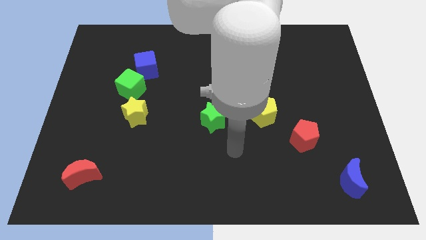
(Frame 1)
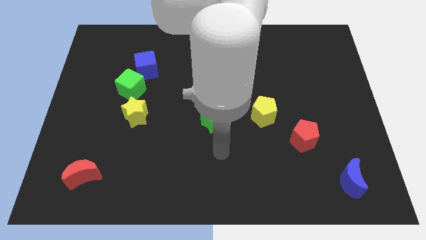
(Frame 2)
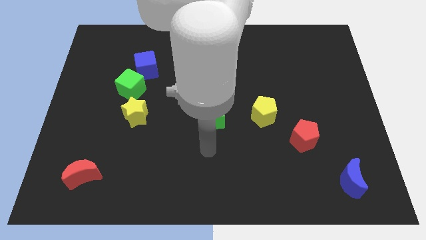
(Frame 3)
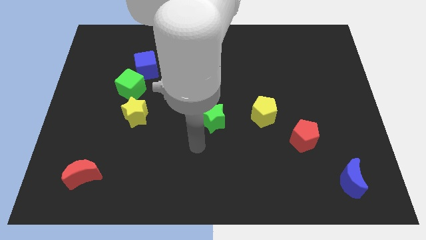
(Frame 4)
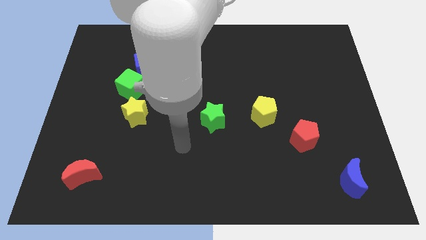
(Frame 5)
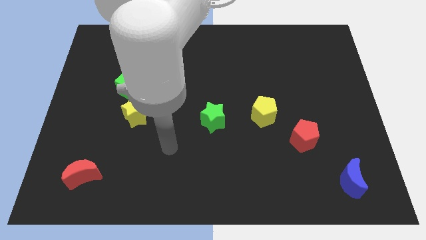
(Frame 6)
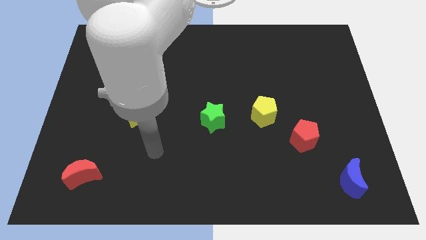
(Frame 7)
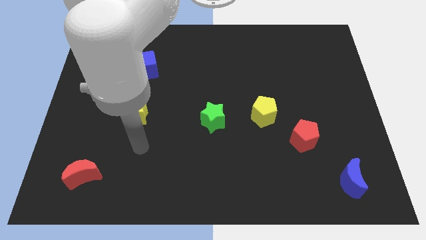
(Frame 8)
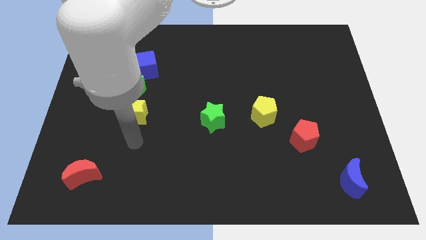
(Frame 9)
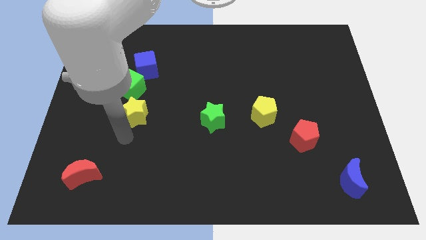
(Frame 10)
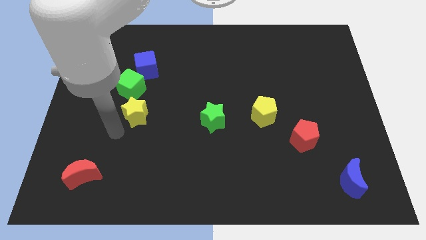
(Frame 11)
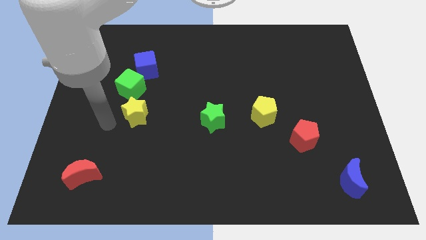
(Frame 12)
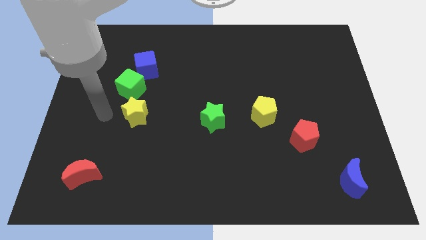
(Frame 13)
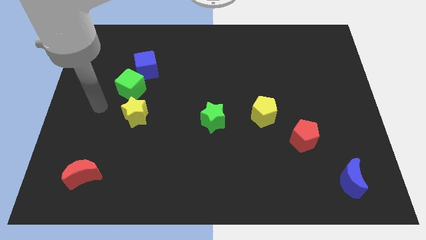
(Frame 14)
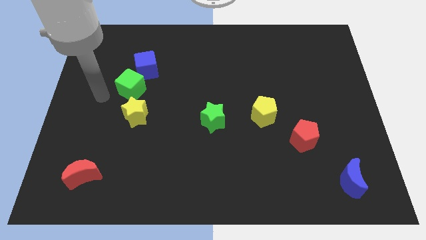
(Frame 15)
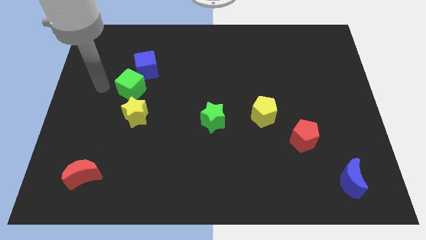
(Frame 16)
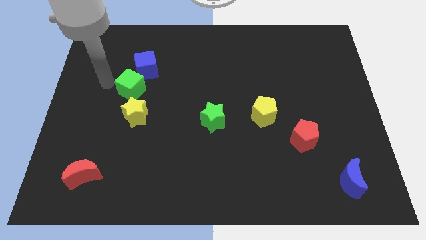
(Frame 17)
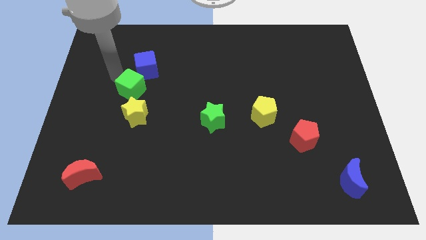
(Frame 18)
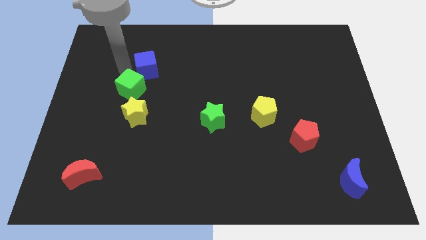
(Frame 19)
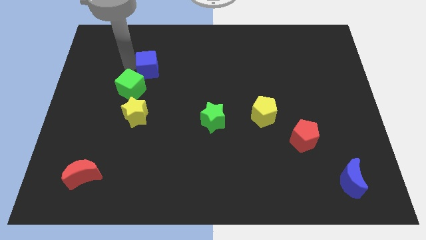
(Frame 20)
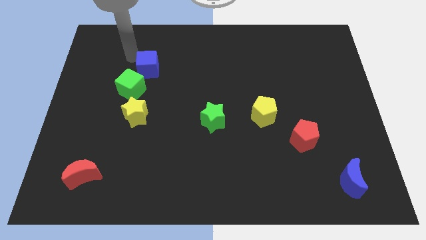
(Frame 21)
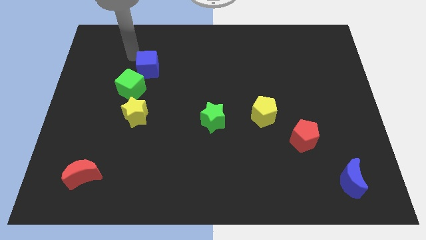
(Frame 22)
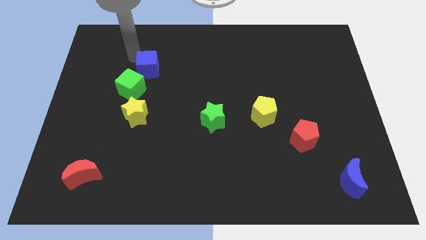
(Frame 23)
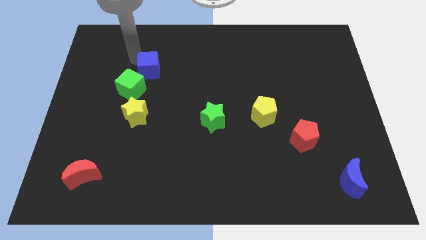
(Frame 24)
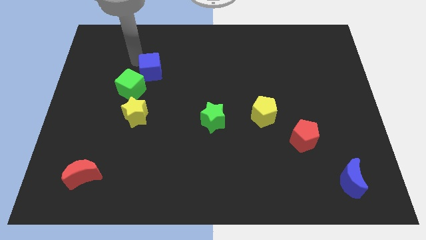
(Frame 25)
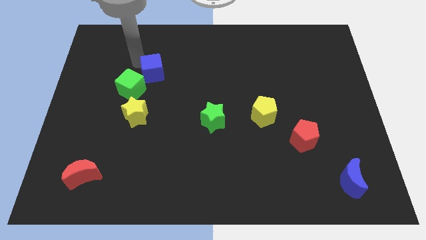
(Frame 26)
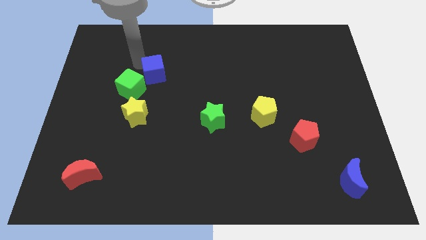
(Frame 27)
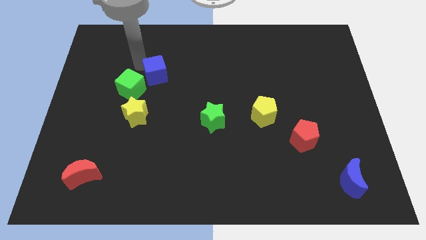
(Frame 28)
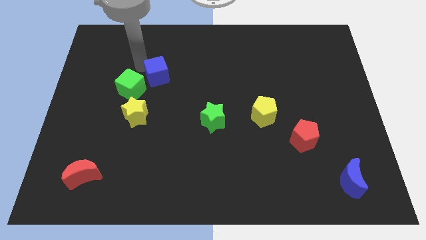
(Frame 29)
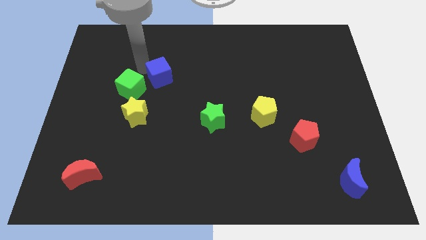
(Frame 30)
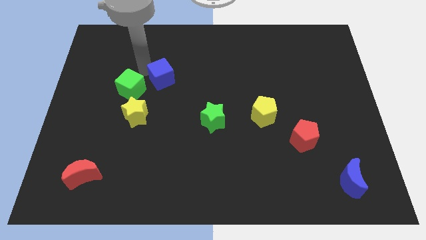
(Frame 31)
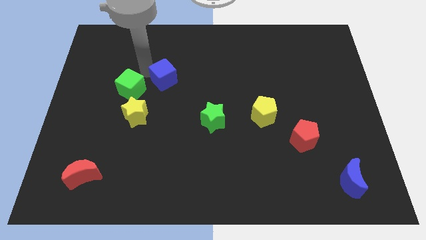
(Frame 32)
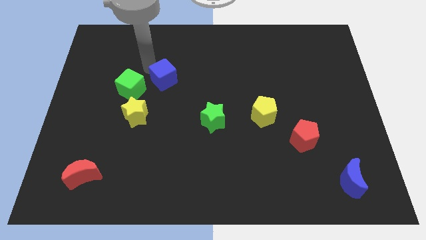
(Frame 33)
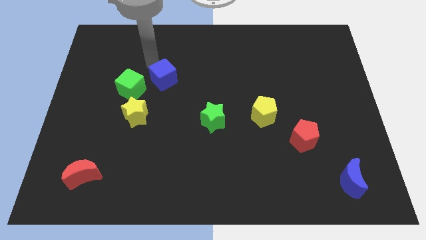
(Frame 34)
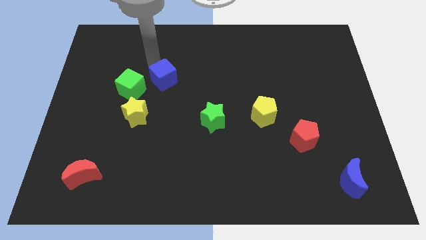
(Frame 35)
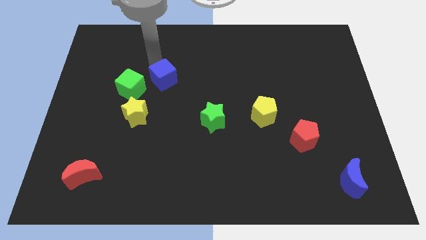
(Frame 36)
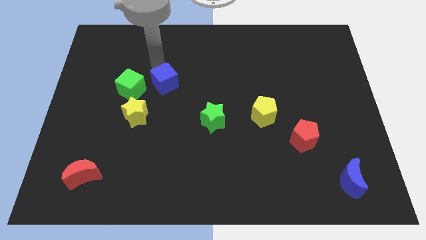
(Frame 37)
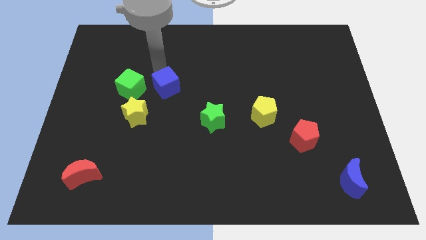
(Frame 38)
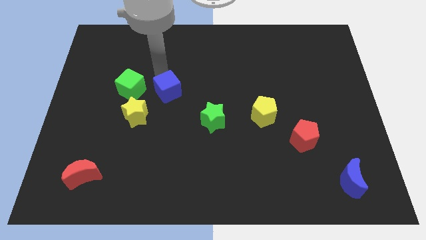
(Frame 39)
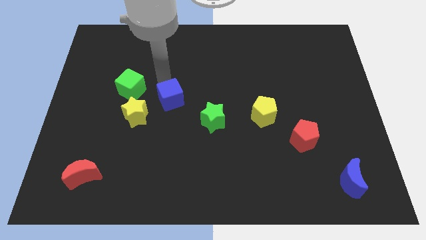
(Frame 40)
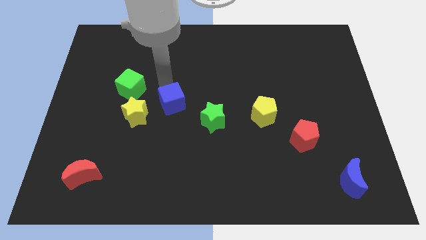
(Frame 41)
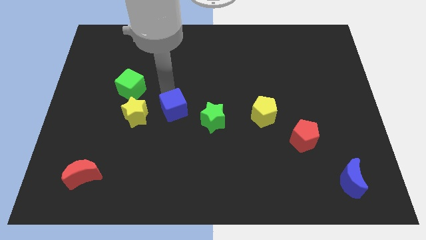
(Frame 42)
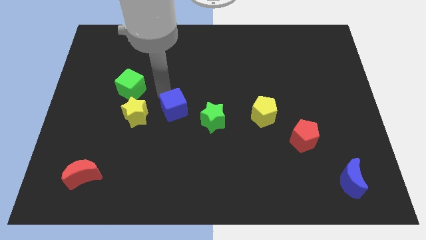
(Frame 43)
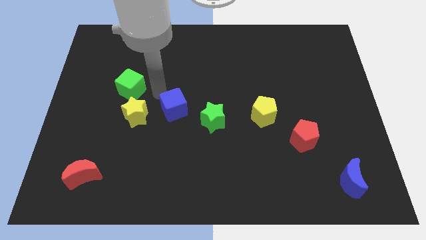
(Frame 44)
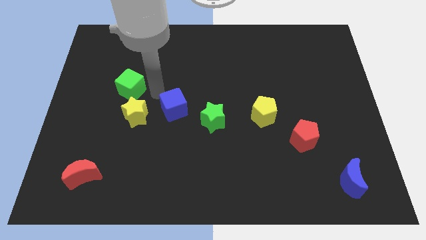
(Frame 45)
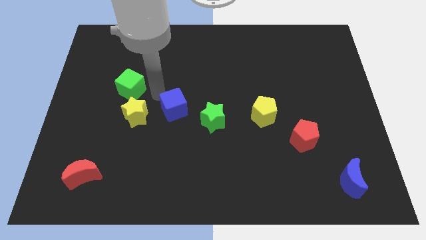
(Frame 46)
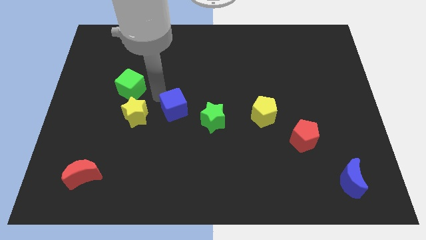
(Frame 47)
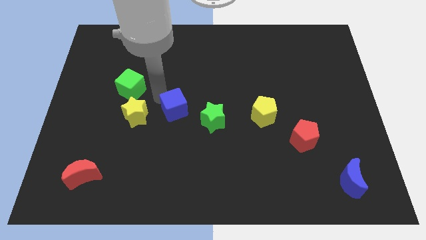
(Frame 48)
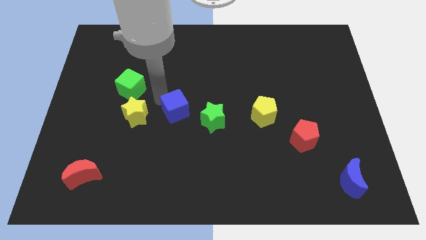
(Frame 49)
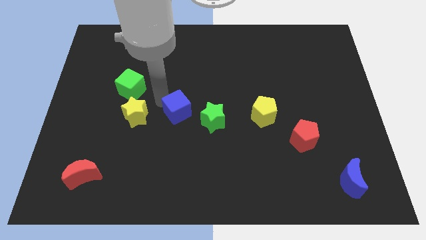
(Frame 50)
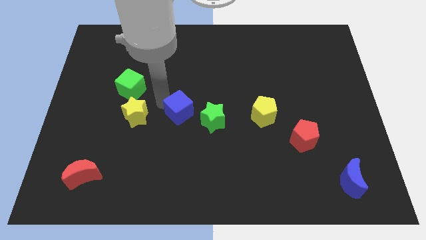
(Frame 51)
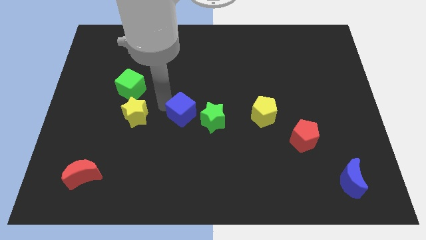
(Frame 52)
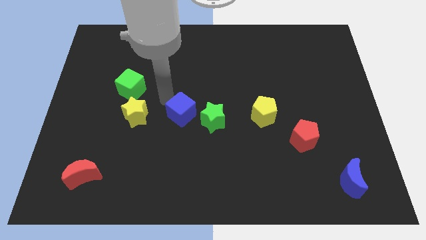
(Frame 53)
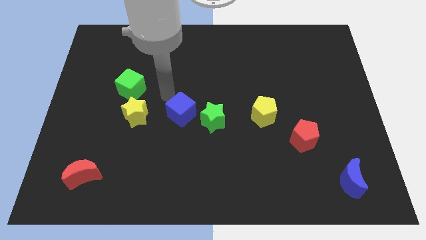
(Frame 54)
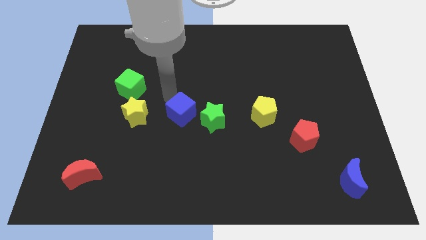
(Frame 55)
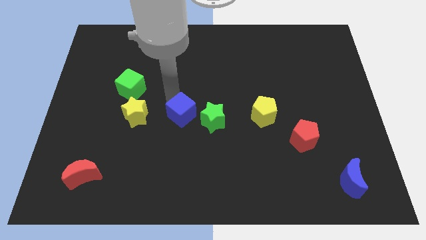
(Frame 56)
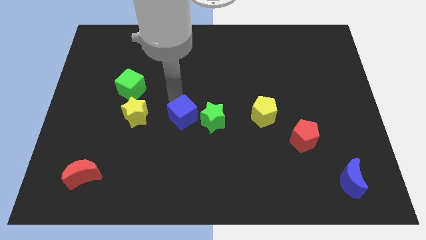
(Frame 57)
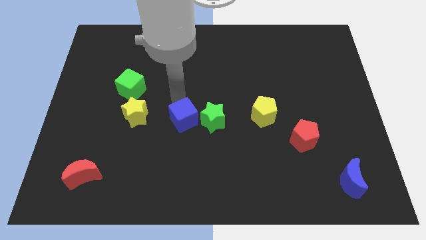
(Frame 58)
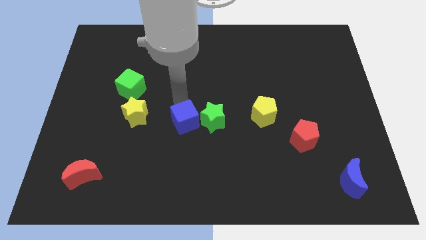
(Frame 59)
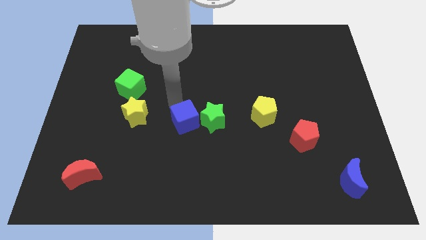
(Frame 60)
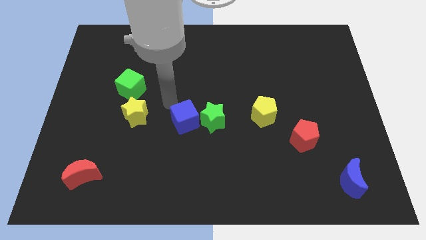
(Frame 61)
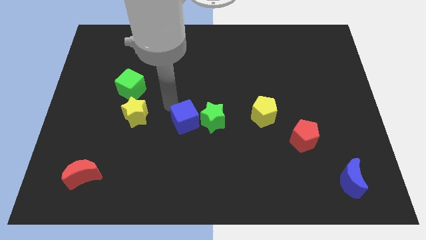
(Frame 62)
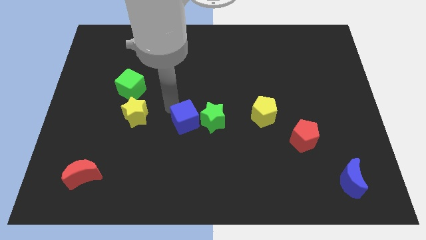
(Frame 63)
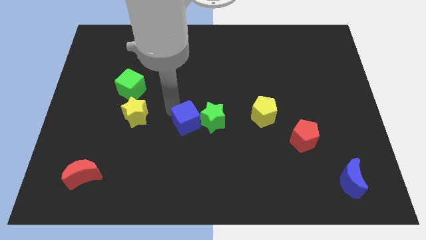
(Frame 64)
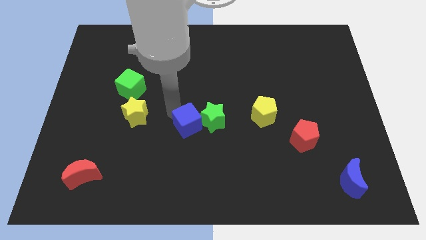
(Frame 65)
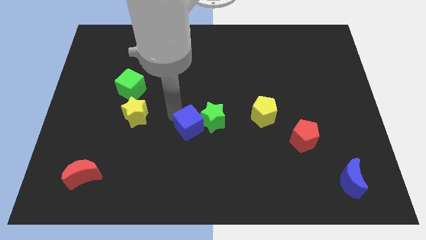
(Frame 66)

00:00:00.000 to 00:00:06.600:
slide the blue cube diagonally downwards and right
